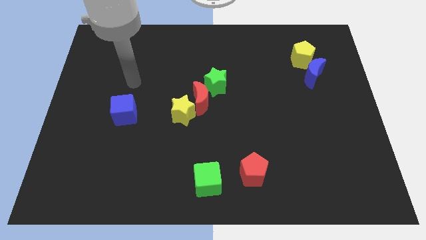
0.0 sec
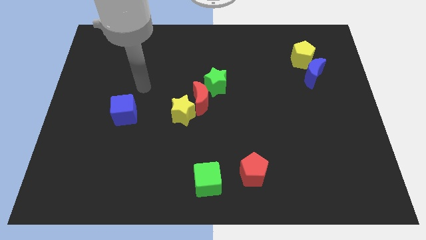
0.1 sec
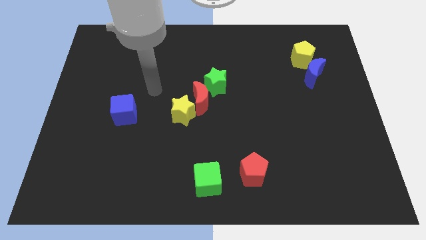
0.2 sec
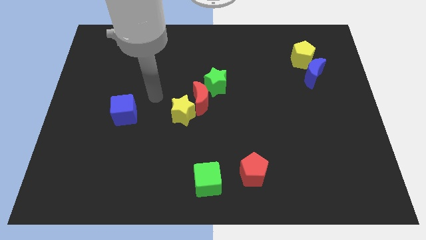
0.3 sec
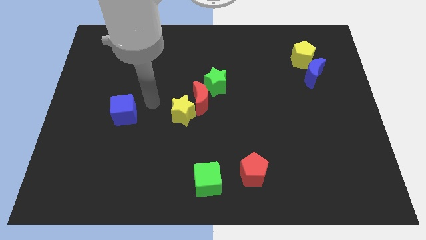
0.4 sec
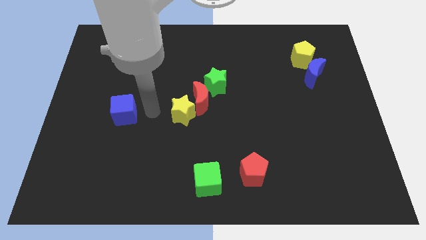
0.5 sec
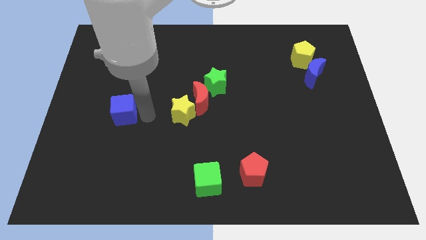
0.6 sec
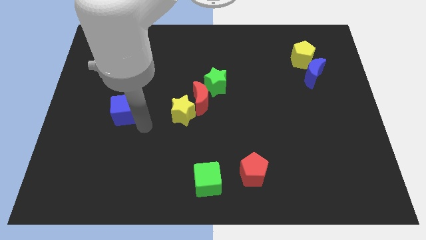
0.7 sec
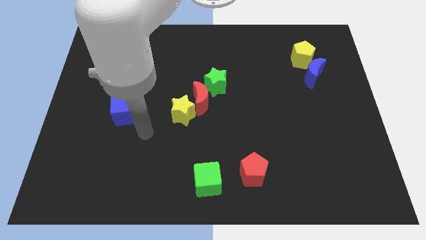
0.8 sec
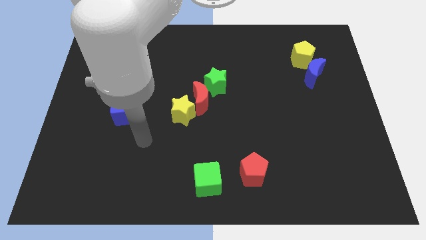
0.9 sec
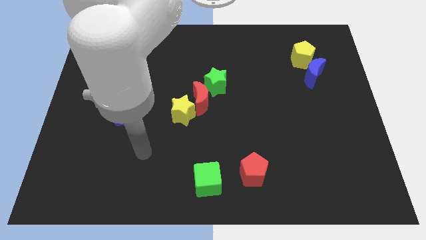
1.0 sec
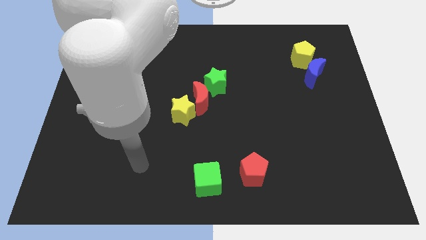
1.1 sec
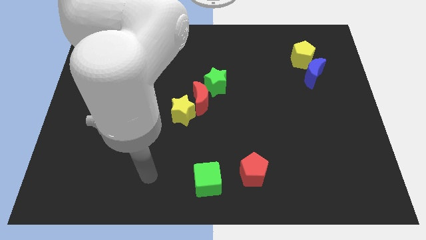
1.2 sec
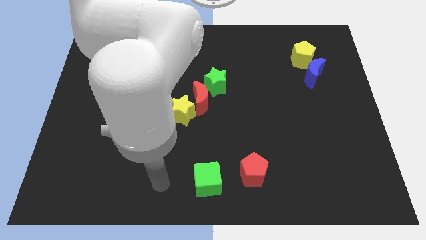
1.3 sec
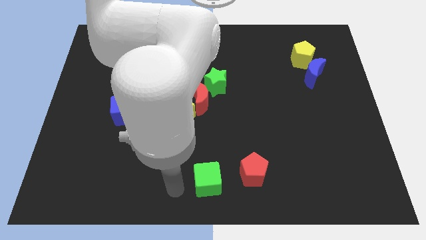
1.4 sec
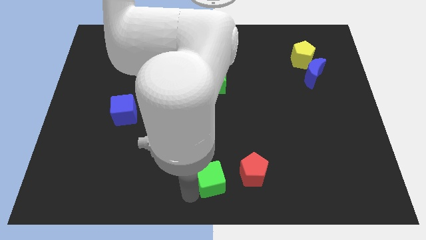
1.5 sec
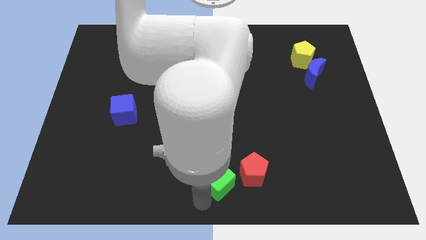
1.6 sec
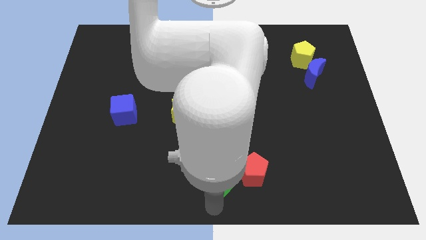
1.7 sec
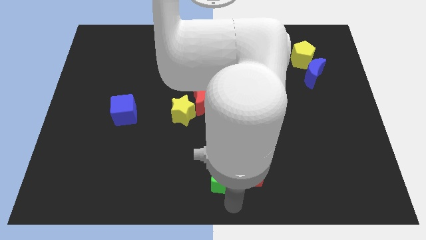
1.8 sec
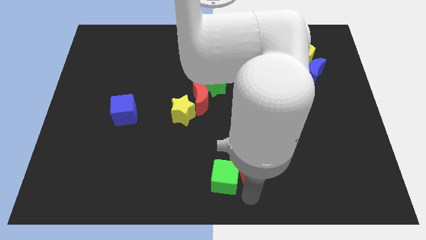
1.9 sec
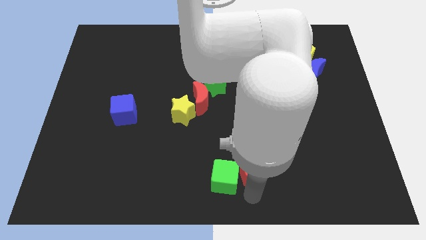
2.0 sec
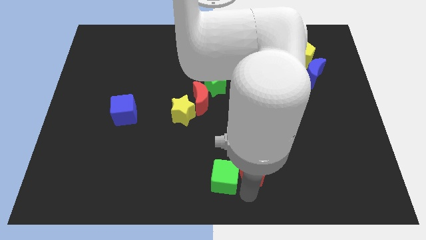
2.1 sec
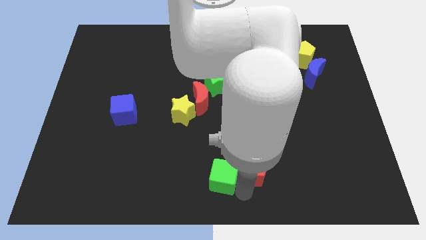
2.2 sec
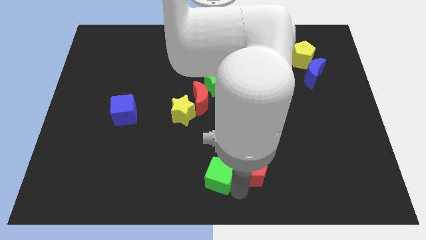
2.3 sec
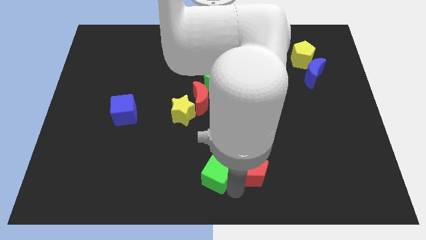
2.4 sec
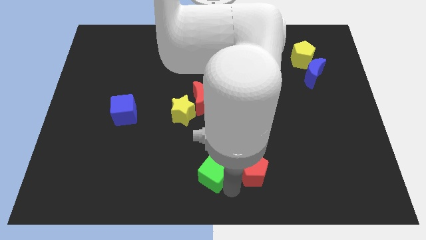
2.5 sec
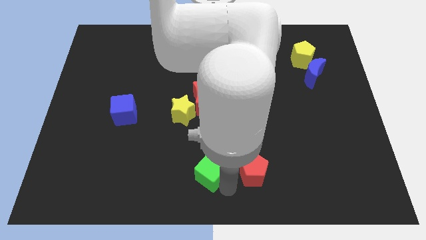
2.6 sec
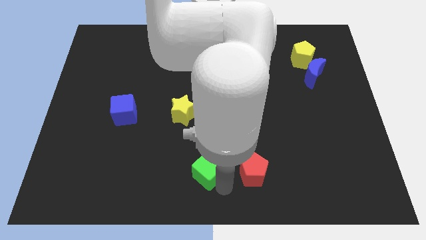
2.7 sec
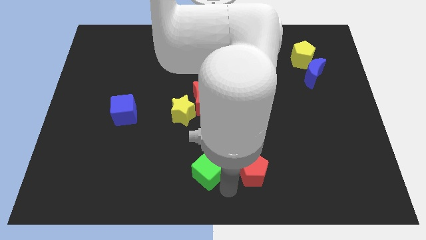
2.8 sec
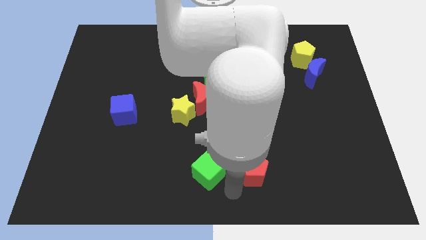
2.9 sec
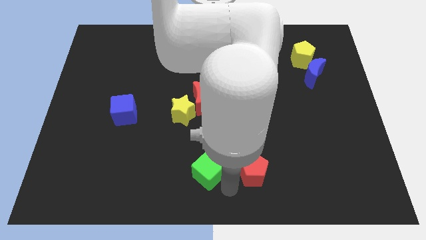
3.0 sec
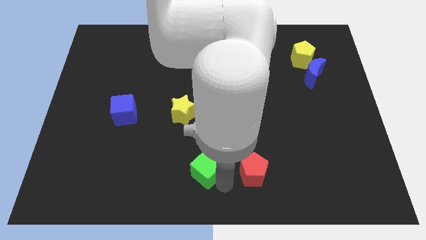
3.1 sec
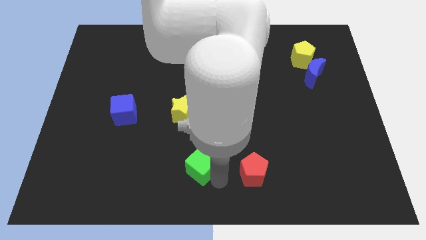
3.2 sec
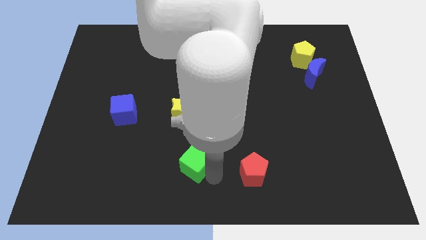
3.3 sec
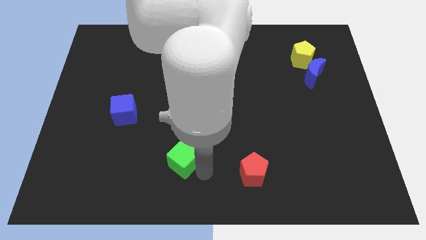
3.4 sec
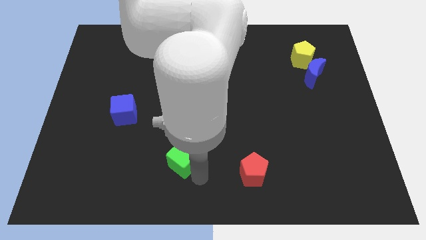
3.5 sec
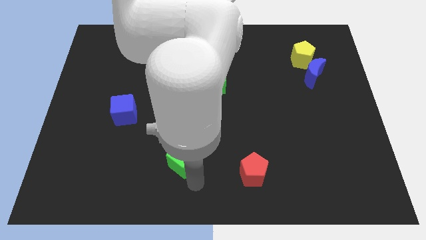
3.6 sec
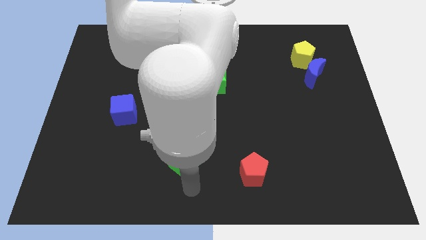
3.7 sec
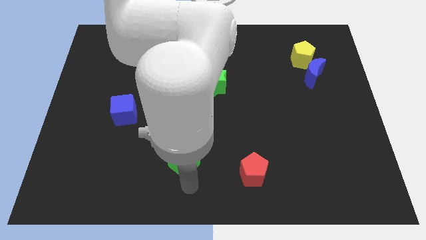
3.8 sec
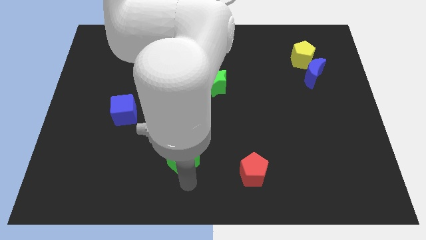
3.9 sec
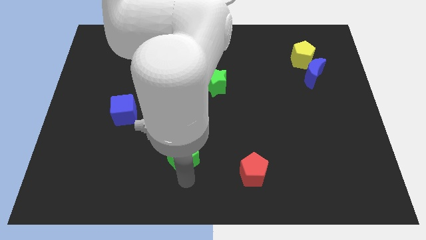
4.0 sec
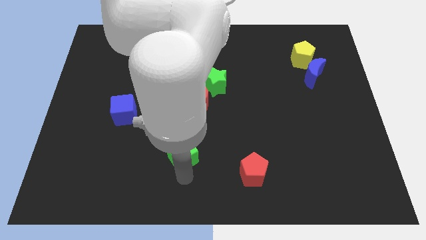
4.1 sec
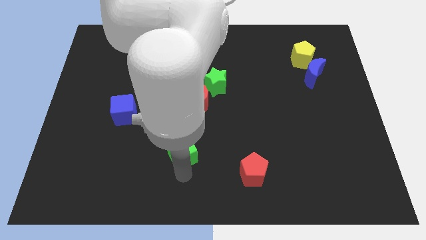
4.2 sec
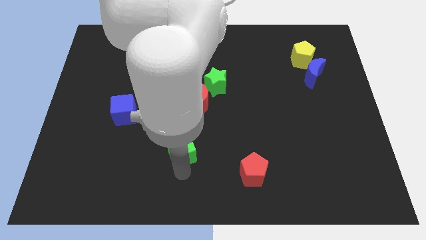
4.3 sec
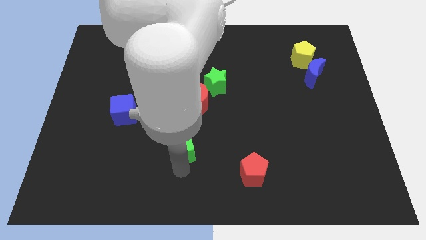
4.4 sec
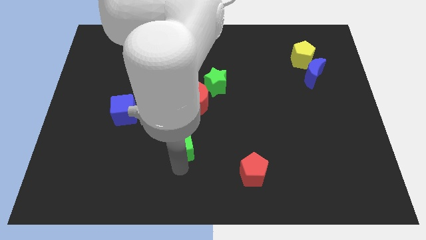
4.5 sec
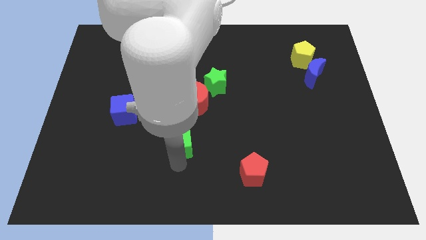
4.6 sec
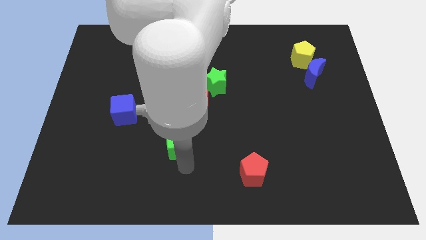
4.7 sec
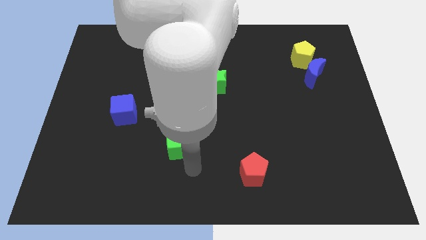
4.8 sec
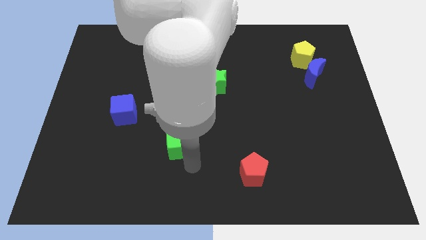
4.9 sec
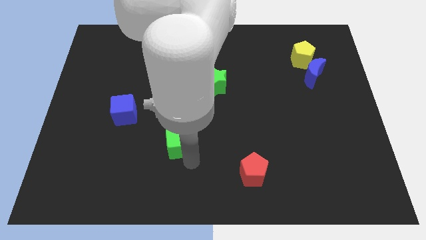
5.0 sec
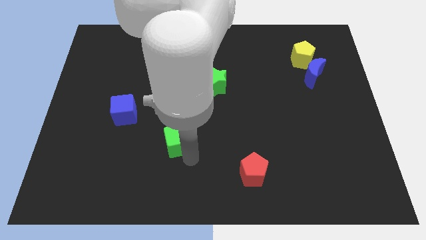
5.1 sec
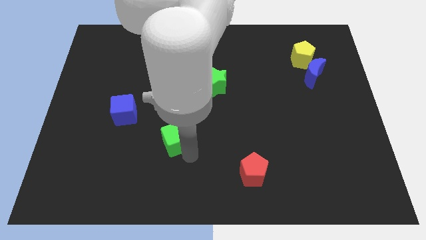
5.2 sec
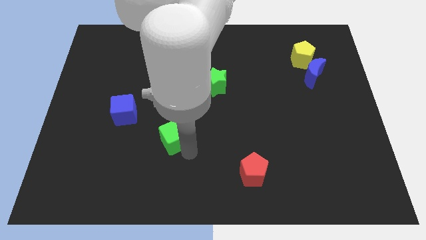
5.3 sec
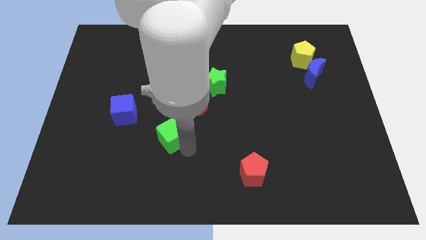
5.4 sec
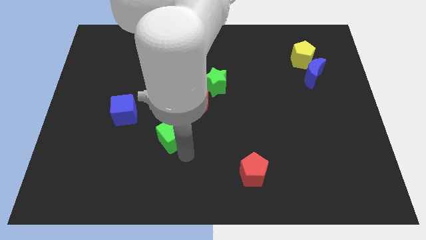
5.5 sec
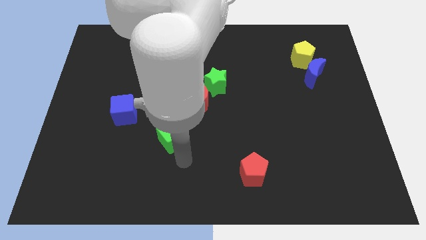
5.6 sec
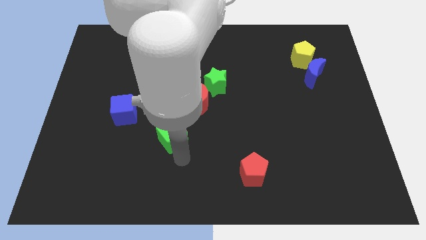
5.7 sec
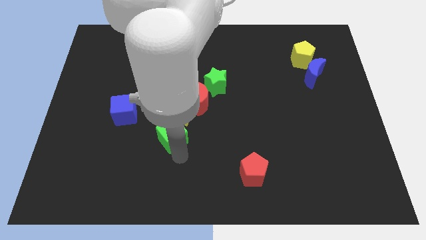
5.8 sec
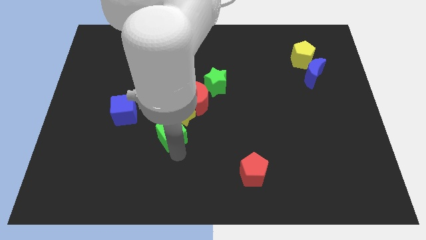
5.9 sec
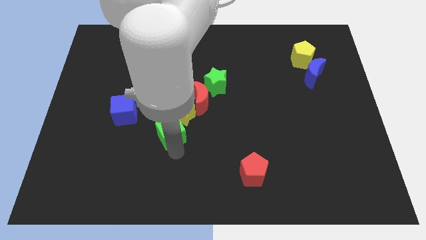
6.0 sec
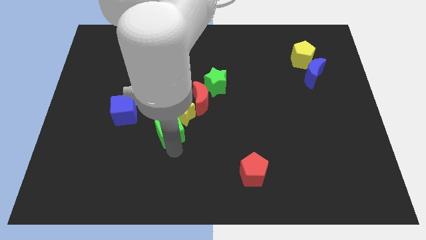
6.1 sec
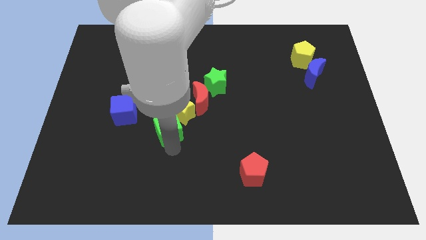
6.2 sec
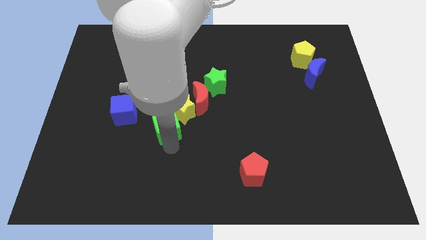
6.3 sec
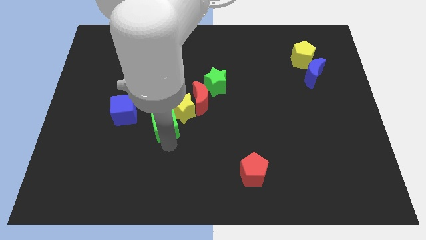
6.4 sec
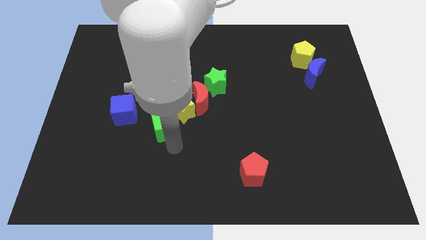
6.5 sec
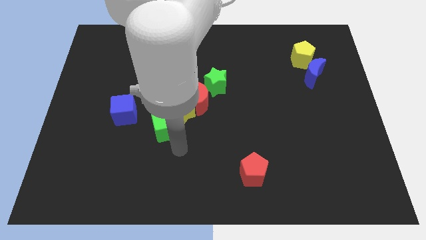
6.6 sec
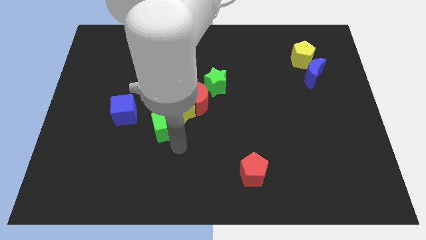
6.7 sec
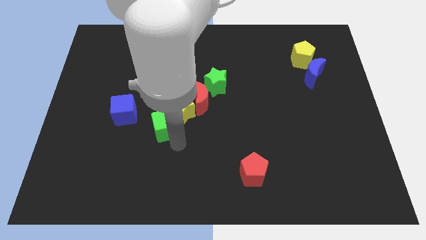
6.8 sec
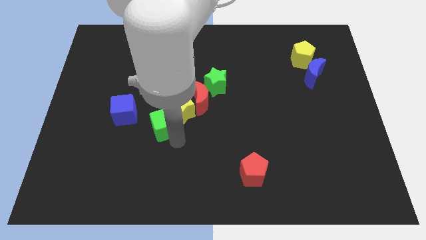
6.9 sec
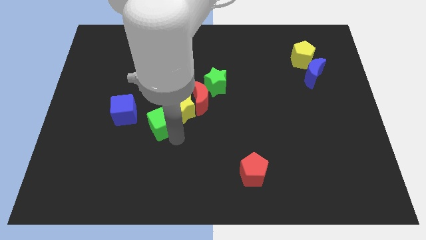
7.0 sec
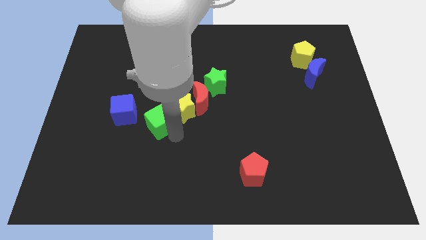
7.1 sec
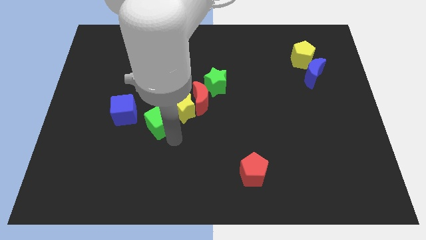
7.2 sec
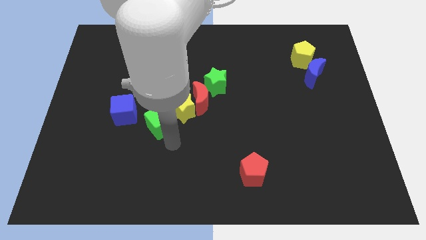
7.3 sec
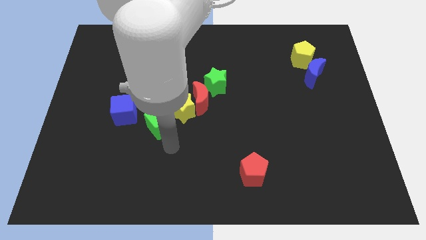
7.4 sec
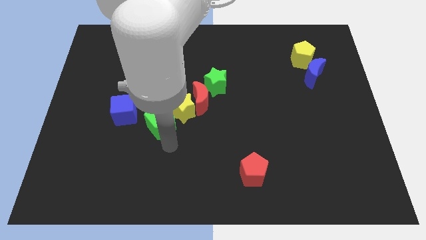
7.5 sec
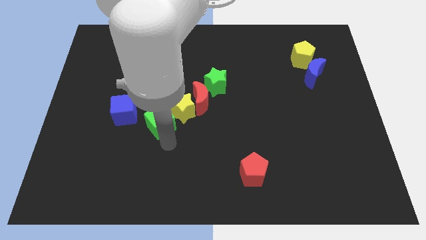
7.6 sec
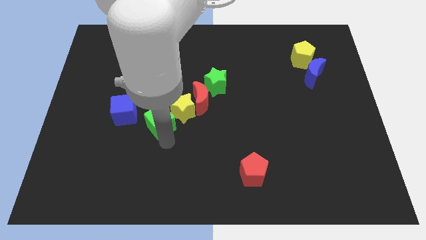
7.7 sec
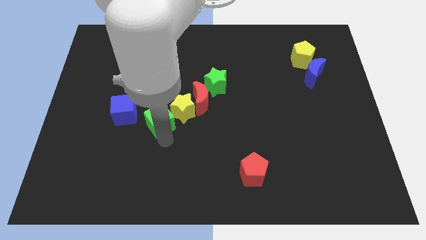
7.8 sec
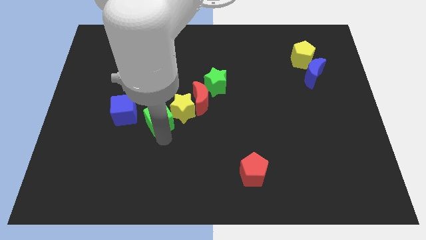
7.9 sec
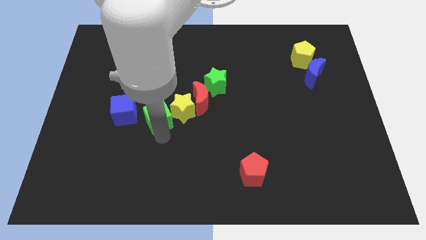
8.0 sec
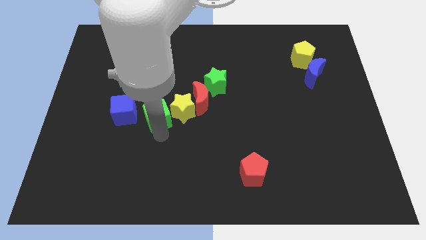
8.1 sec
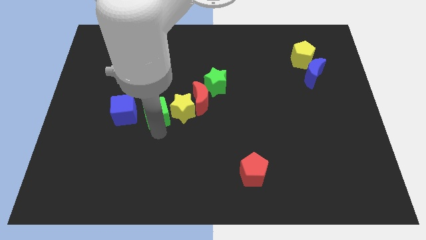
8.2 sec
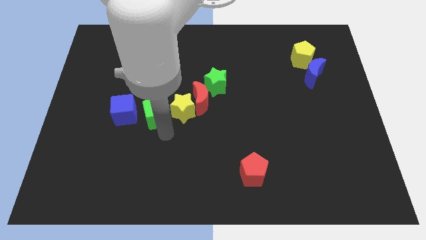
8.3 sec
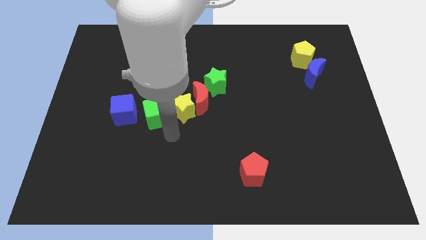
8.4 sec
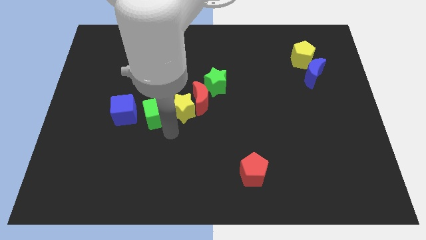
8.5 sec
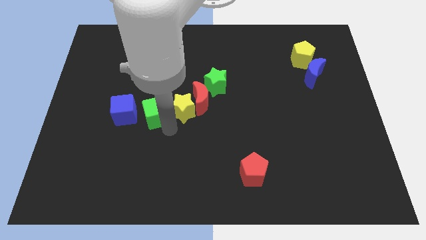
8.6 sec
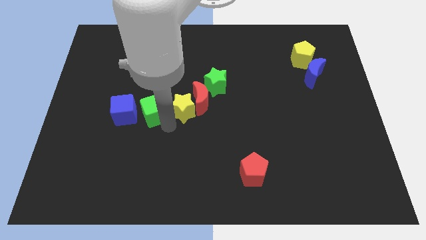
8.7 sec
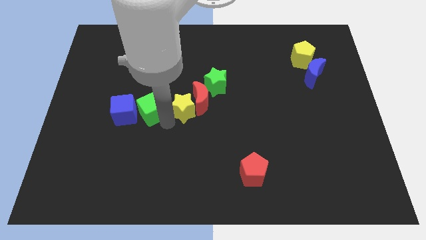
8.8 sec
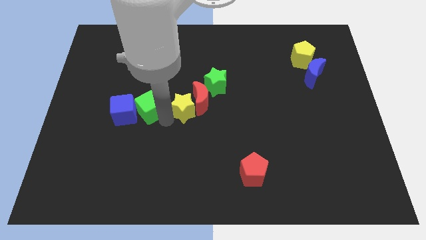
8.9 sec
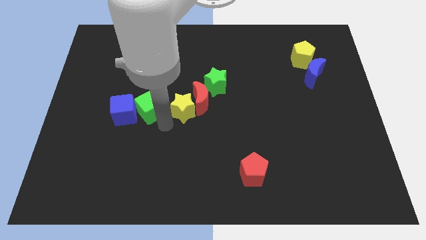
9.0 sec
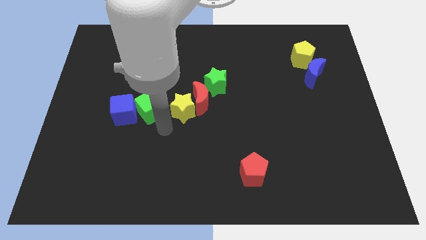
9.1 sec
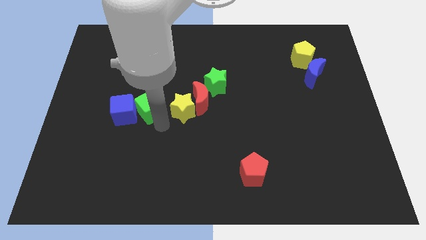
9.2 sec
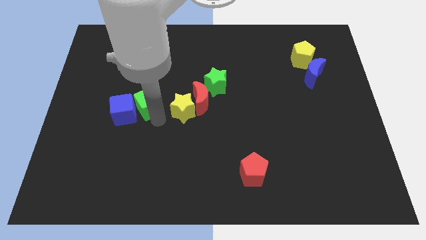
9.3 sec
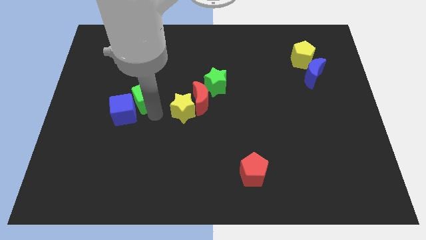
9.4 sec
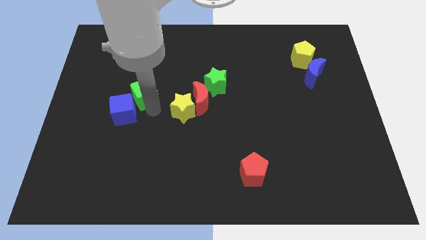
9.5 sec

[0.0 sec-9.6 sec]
put the green cube to the top side of the blue cube
